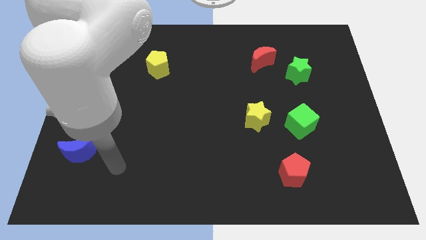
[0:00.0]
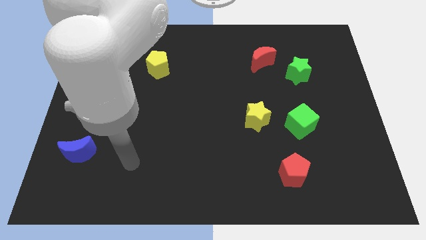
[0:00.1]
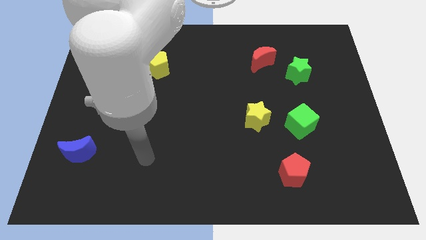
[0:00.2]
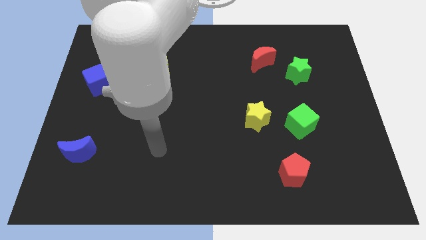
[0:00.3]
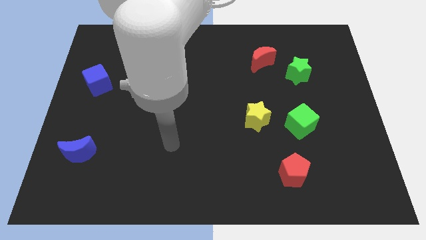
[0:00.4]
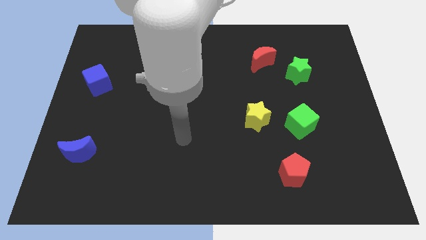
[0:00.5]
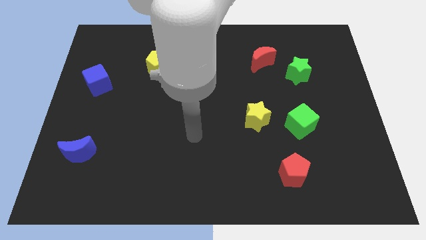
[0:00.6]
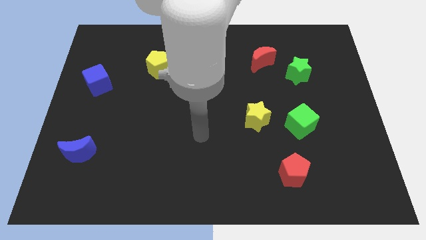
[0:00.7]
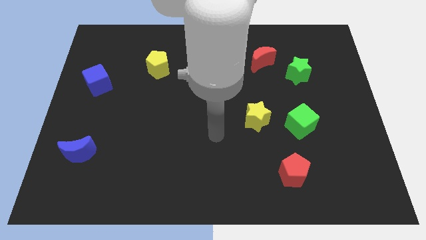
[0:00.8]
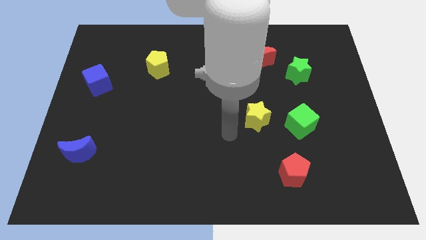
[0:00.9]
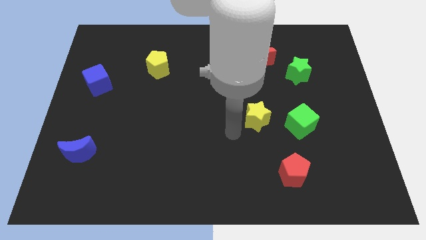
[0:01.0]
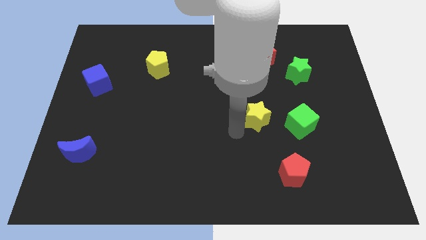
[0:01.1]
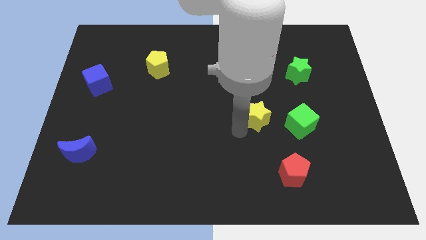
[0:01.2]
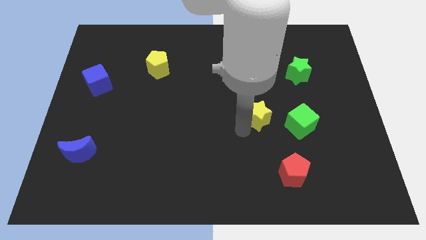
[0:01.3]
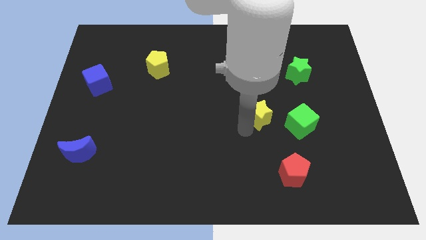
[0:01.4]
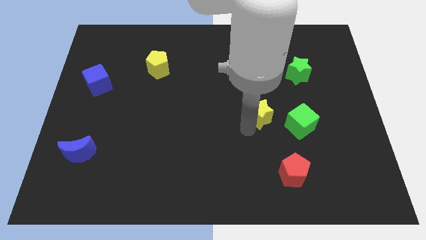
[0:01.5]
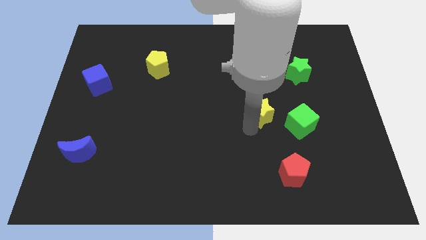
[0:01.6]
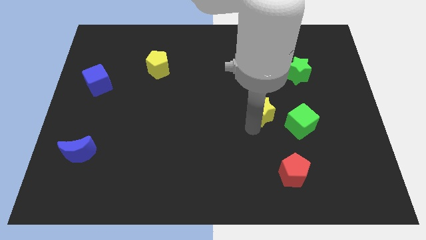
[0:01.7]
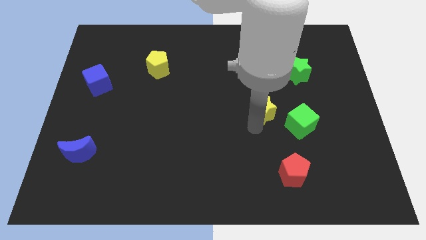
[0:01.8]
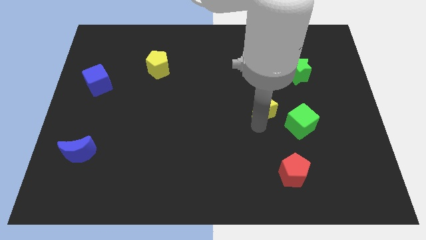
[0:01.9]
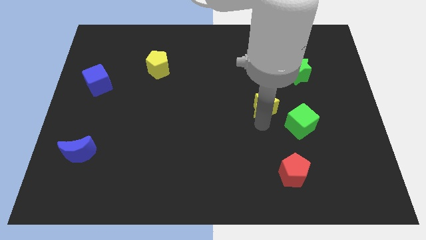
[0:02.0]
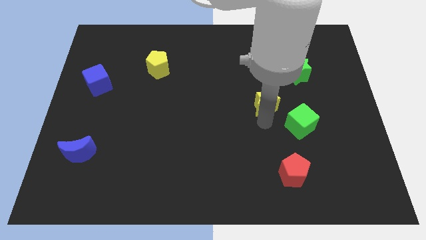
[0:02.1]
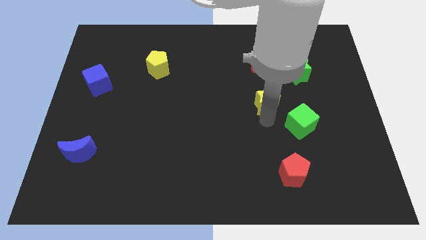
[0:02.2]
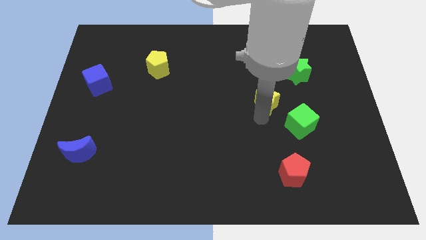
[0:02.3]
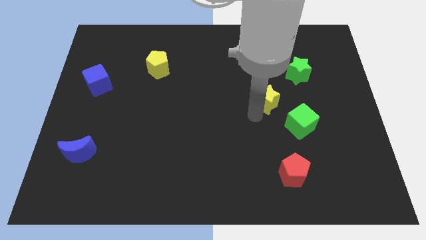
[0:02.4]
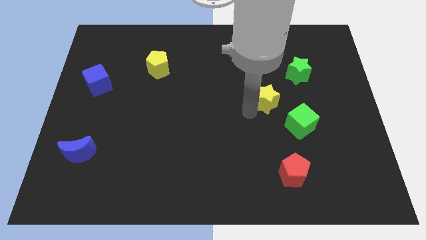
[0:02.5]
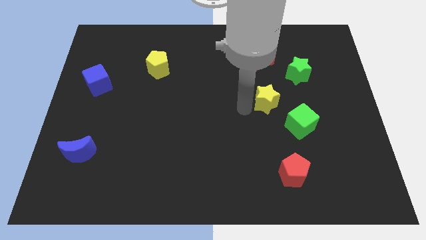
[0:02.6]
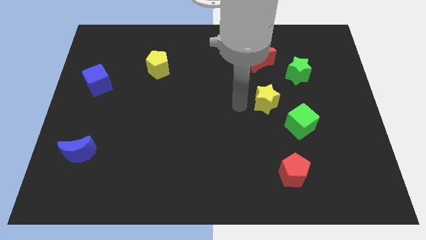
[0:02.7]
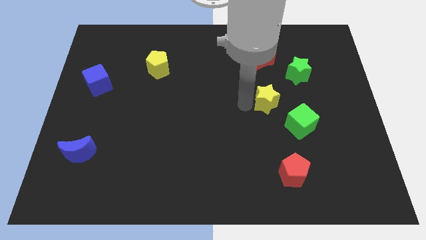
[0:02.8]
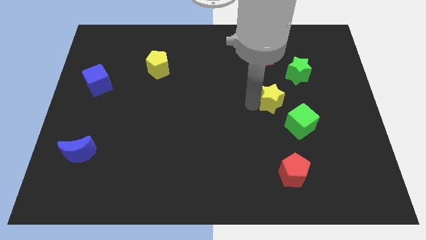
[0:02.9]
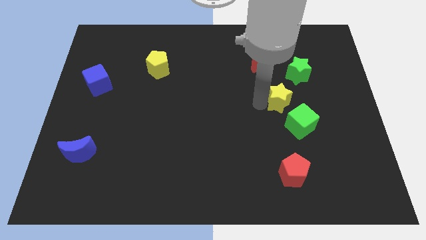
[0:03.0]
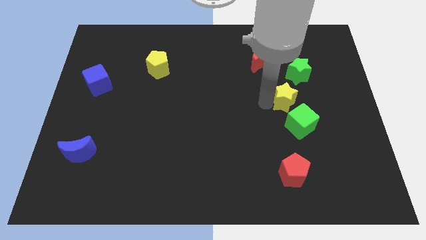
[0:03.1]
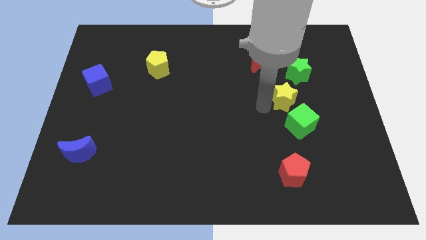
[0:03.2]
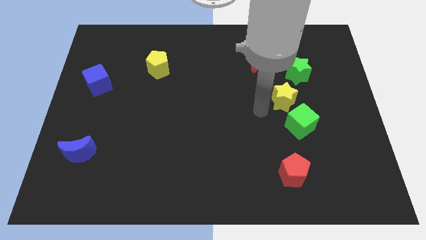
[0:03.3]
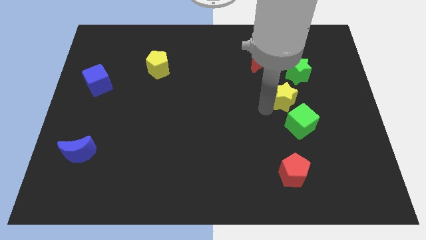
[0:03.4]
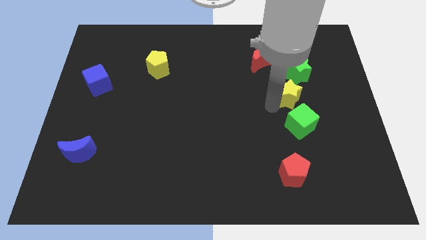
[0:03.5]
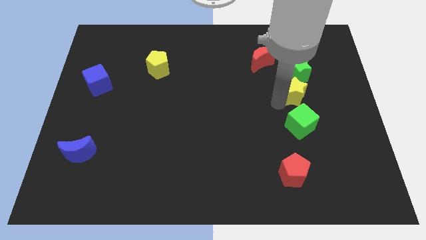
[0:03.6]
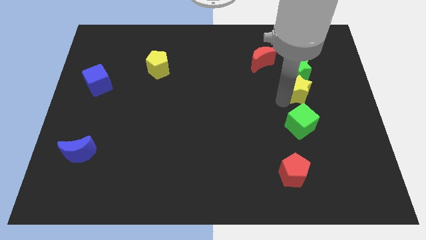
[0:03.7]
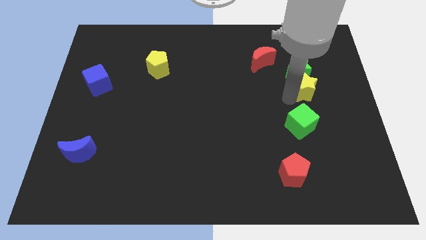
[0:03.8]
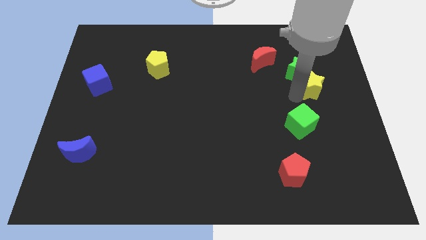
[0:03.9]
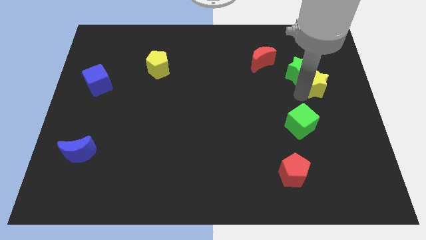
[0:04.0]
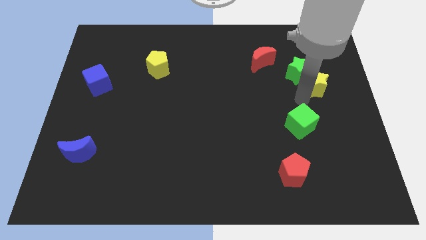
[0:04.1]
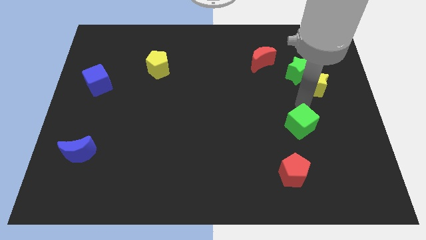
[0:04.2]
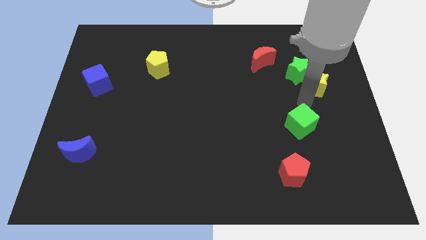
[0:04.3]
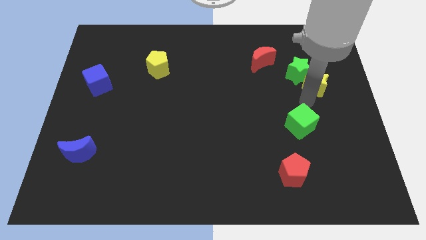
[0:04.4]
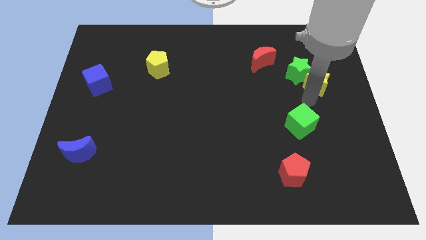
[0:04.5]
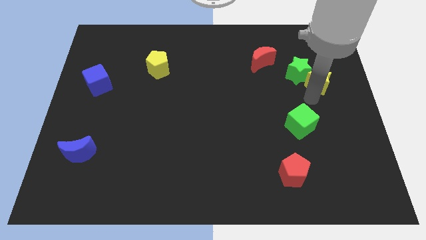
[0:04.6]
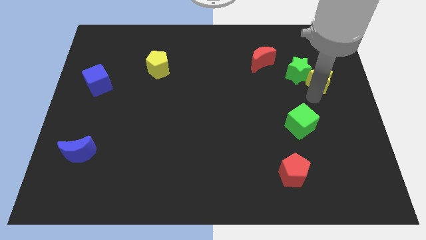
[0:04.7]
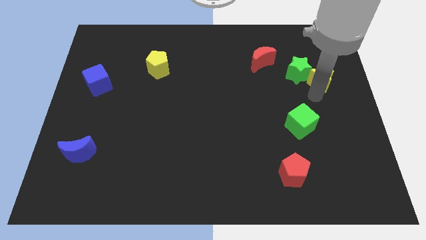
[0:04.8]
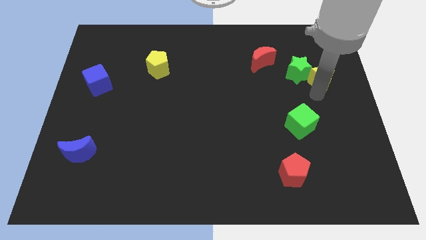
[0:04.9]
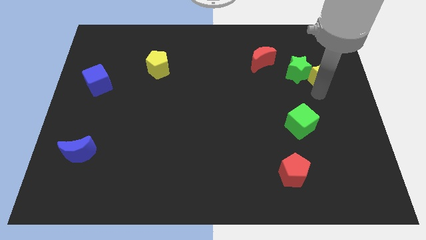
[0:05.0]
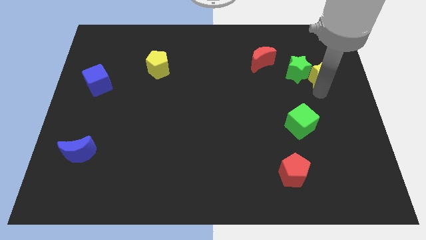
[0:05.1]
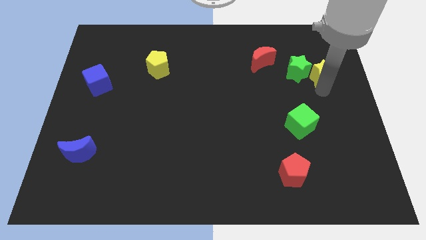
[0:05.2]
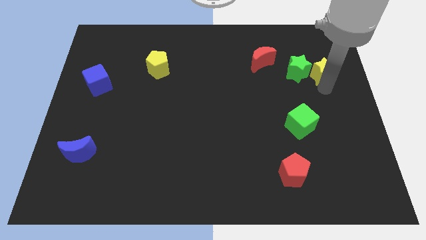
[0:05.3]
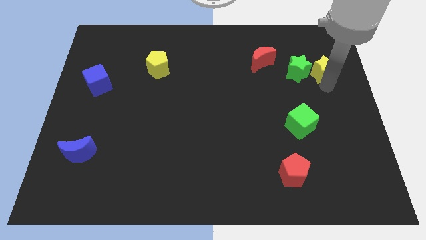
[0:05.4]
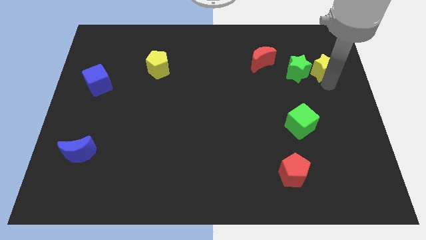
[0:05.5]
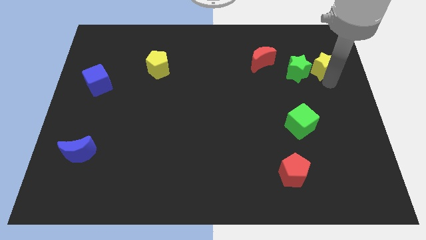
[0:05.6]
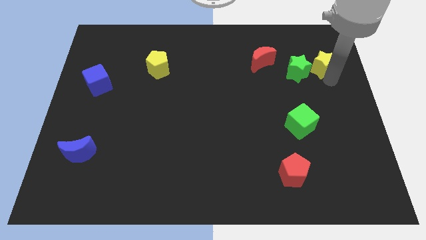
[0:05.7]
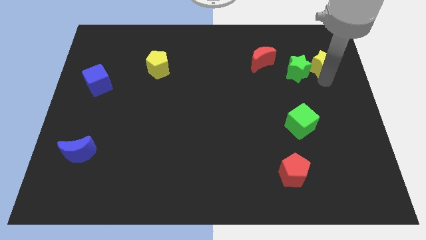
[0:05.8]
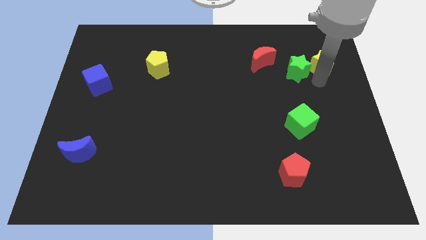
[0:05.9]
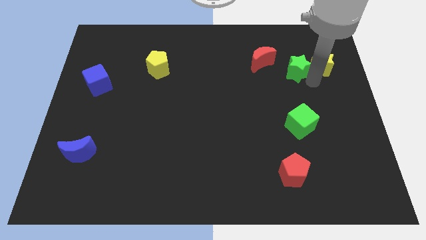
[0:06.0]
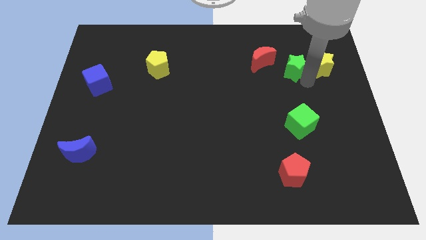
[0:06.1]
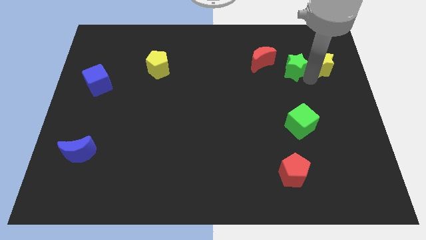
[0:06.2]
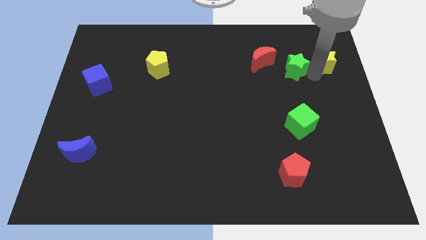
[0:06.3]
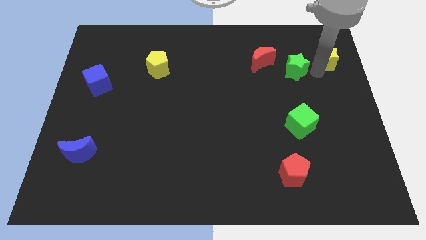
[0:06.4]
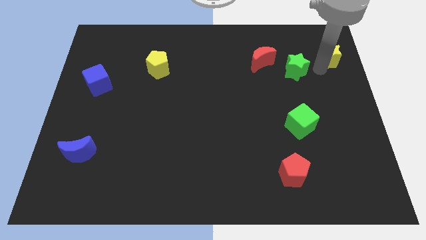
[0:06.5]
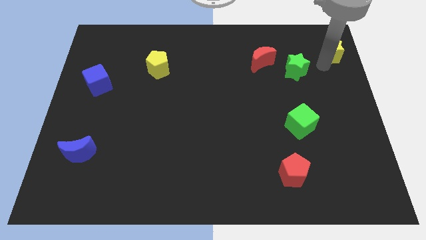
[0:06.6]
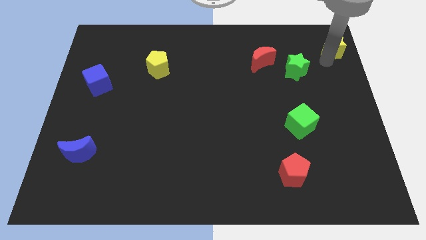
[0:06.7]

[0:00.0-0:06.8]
slide the yellow star to the top right
